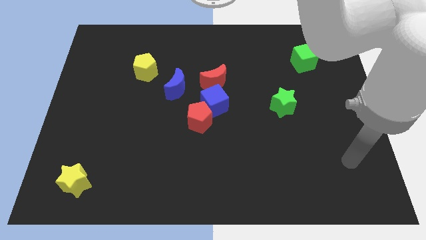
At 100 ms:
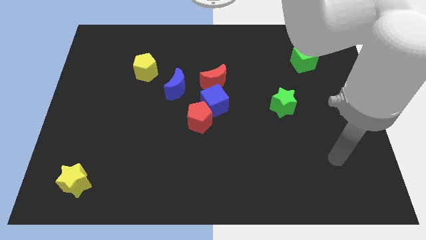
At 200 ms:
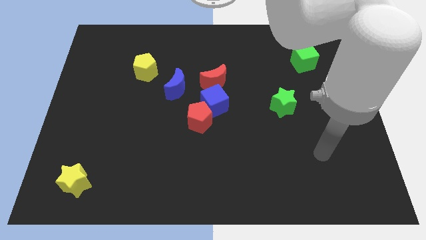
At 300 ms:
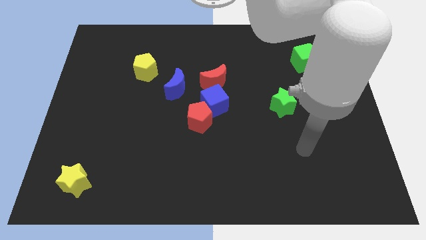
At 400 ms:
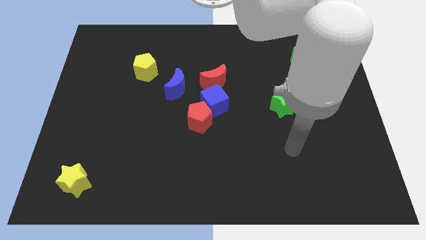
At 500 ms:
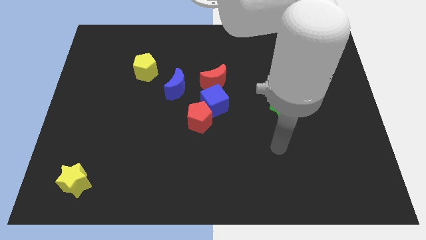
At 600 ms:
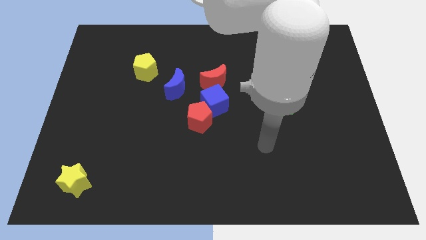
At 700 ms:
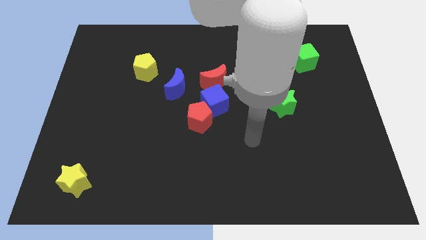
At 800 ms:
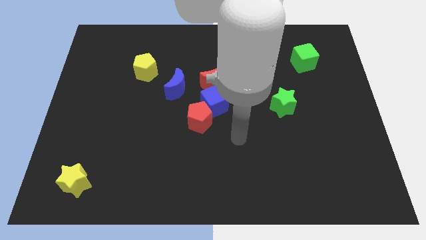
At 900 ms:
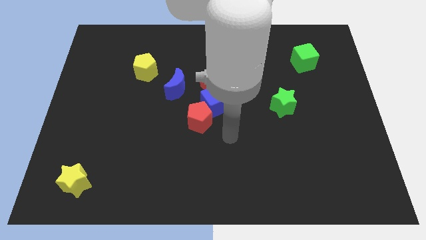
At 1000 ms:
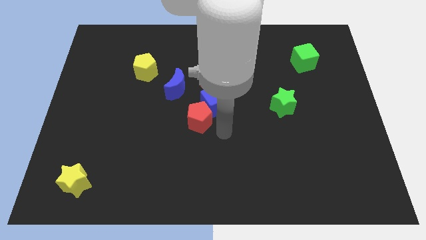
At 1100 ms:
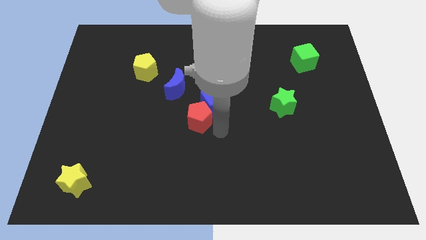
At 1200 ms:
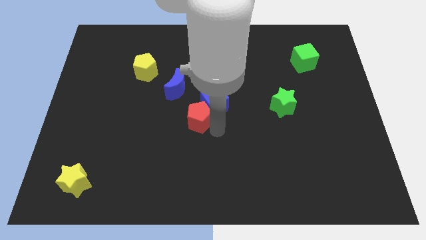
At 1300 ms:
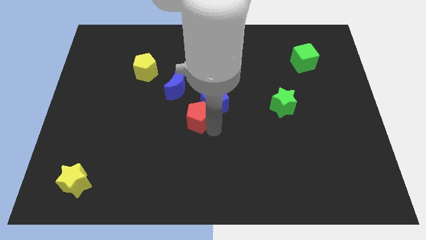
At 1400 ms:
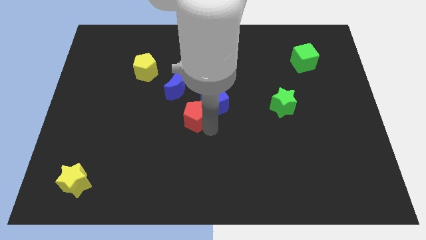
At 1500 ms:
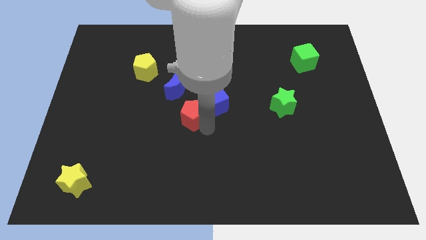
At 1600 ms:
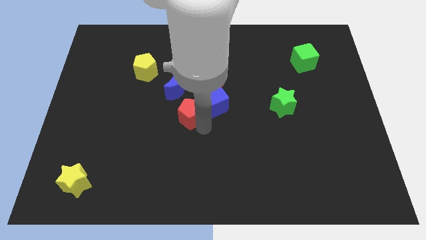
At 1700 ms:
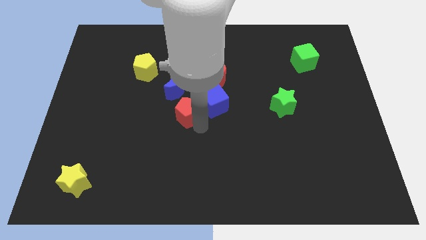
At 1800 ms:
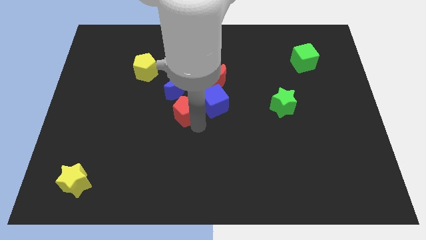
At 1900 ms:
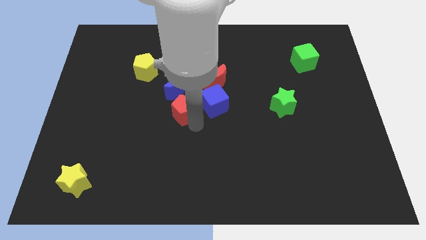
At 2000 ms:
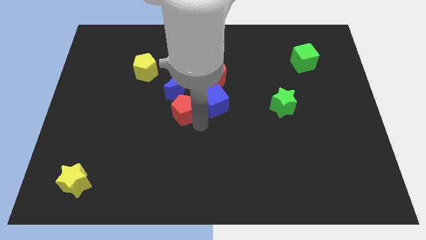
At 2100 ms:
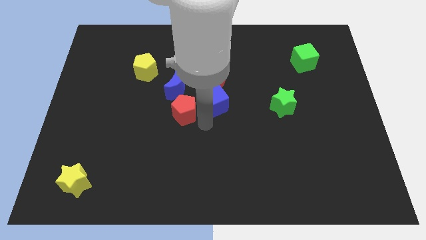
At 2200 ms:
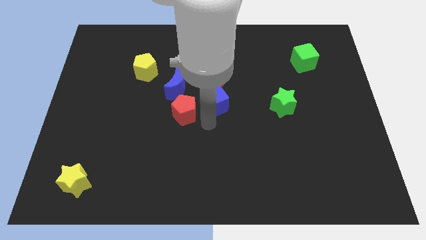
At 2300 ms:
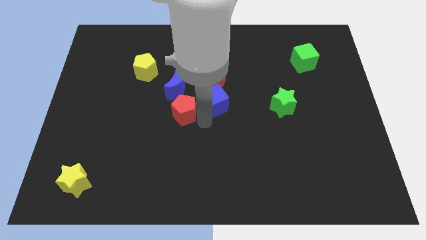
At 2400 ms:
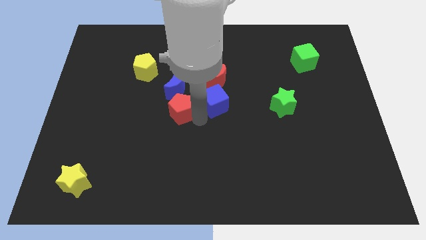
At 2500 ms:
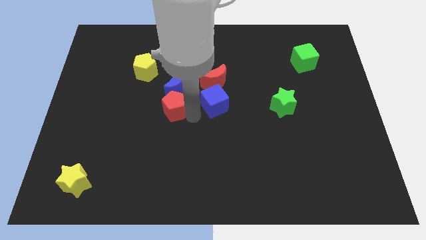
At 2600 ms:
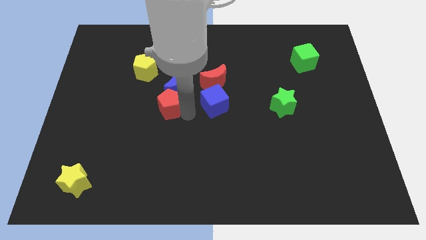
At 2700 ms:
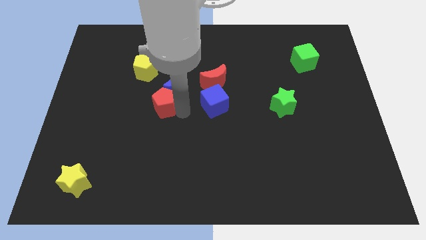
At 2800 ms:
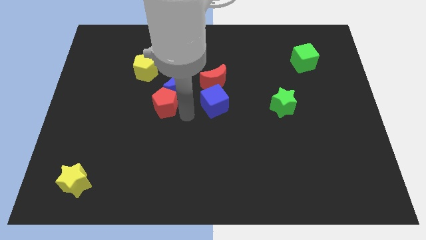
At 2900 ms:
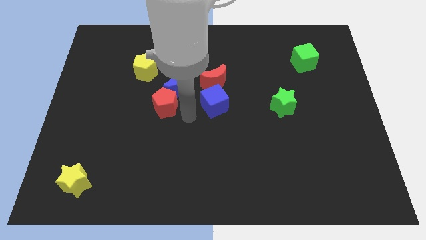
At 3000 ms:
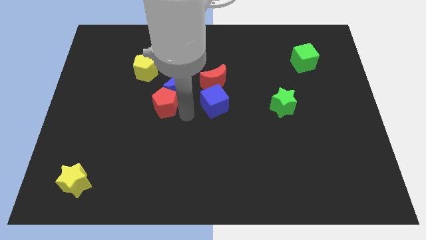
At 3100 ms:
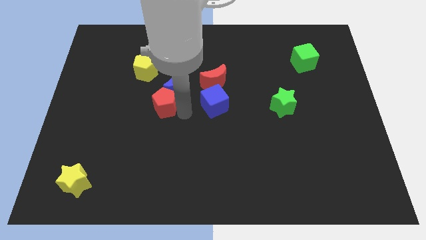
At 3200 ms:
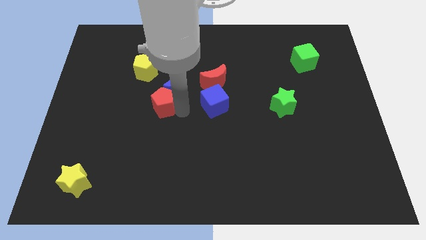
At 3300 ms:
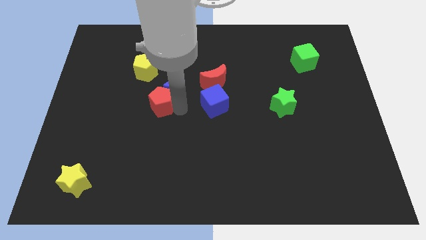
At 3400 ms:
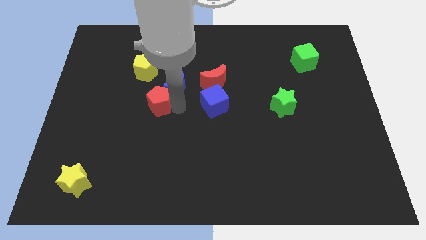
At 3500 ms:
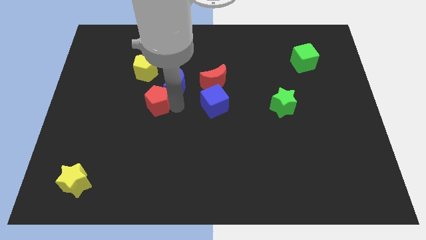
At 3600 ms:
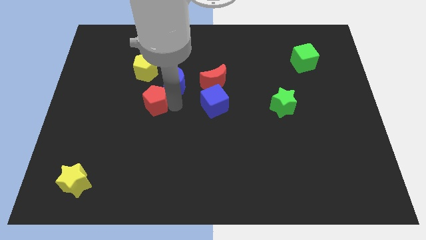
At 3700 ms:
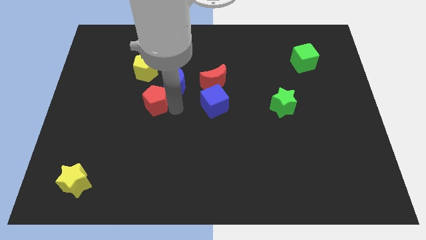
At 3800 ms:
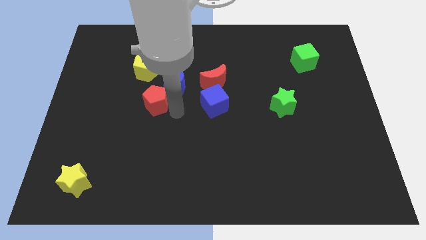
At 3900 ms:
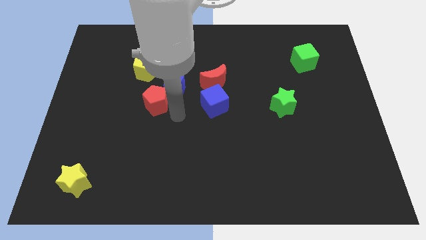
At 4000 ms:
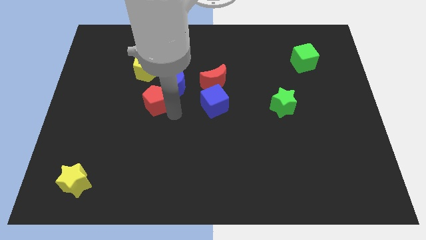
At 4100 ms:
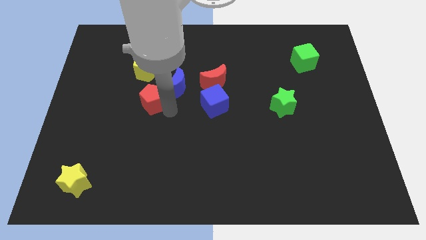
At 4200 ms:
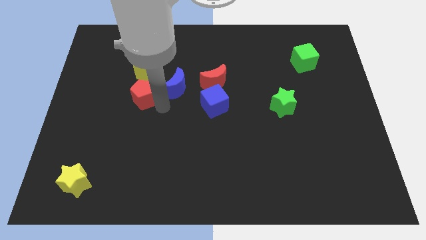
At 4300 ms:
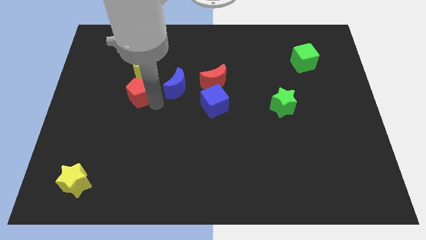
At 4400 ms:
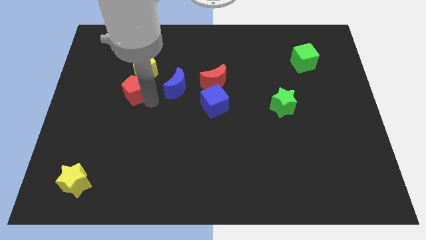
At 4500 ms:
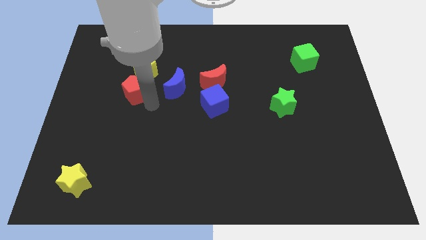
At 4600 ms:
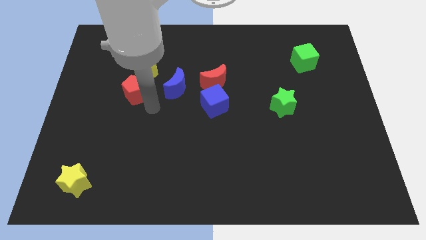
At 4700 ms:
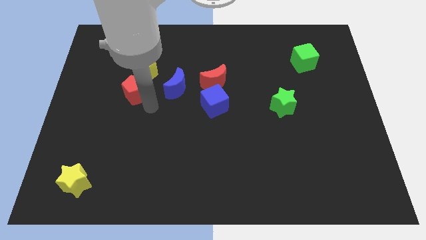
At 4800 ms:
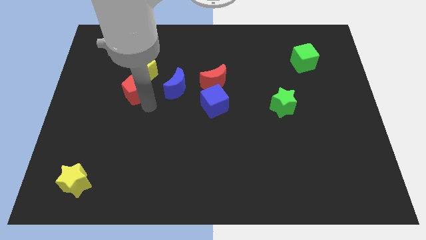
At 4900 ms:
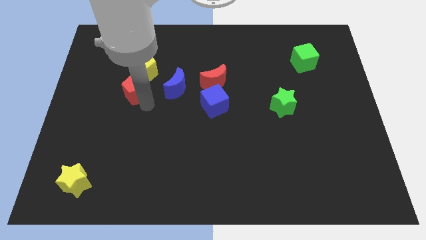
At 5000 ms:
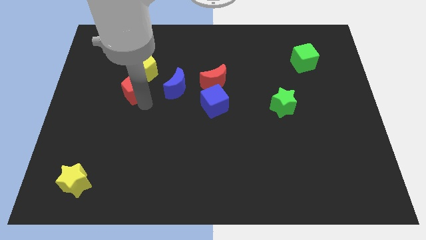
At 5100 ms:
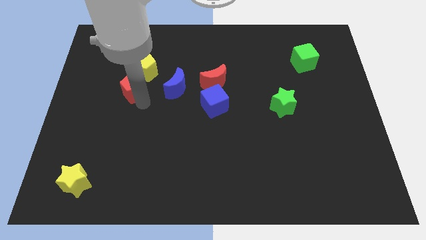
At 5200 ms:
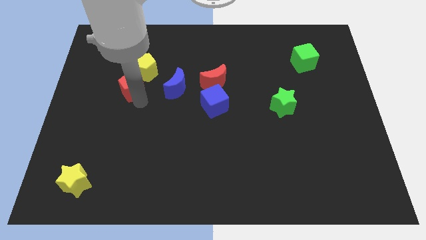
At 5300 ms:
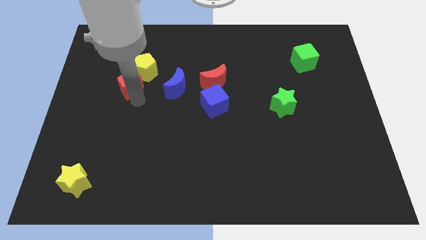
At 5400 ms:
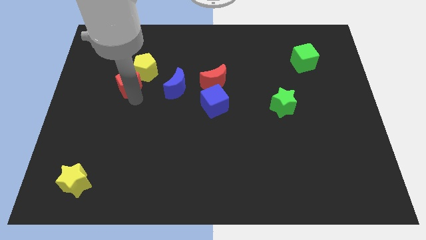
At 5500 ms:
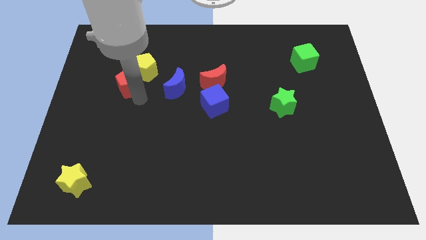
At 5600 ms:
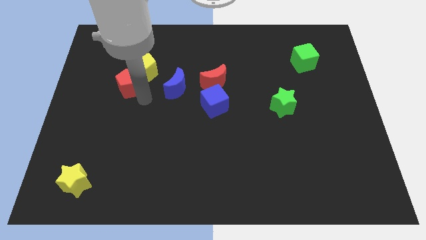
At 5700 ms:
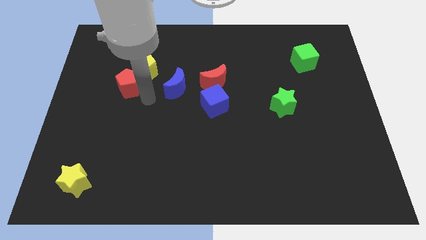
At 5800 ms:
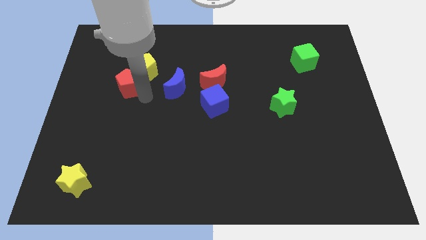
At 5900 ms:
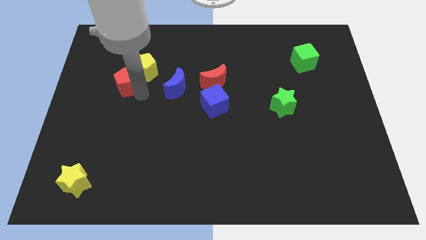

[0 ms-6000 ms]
put the red pentagon just left of the yellow pentagon

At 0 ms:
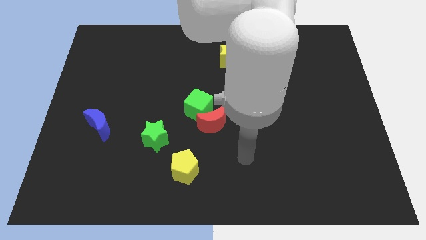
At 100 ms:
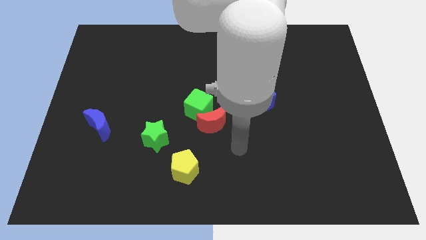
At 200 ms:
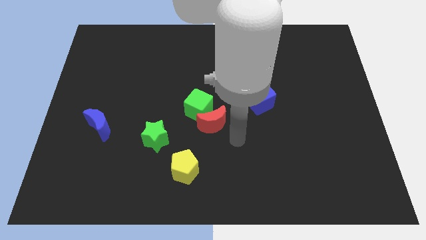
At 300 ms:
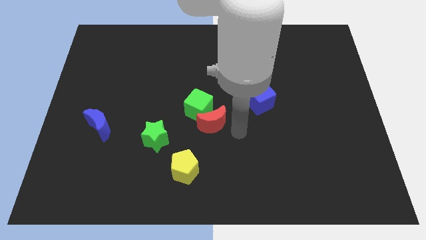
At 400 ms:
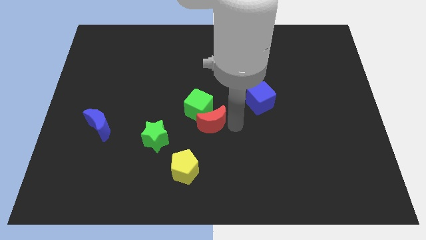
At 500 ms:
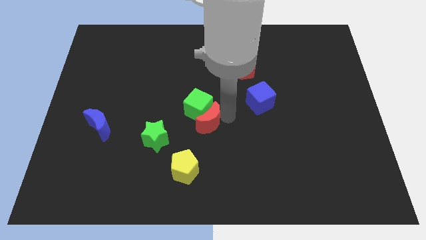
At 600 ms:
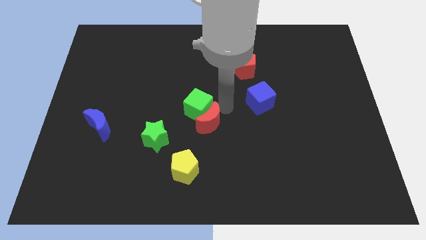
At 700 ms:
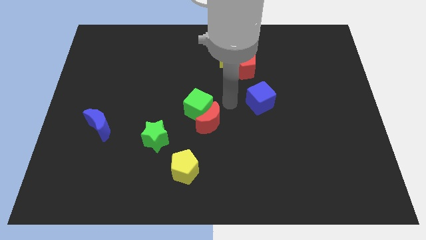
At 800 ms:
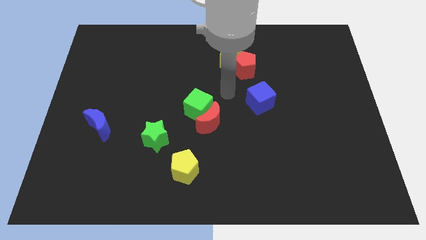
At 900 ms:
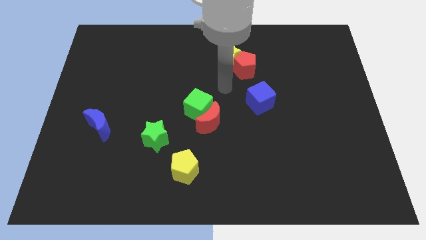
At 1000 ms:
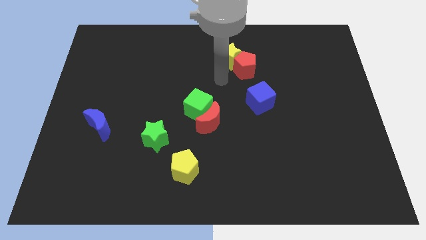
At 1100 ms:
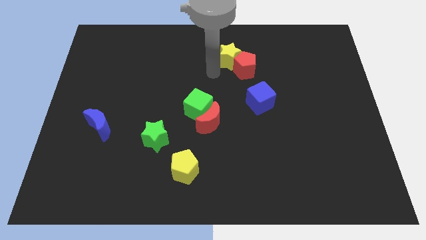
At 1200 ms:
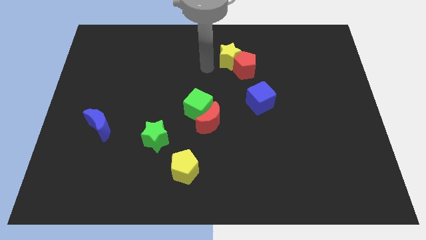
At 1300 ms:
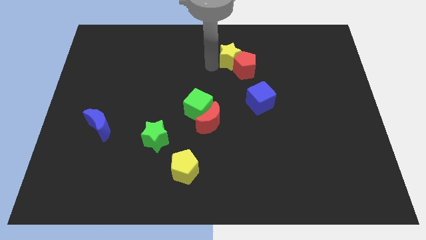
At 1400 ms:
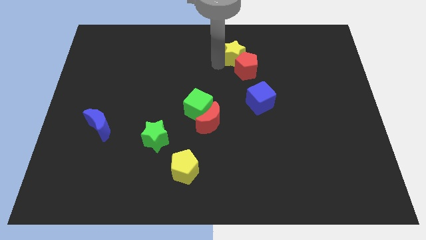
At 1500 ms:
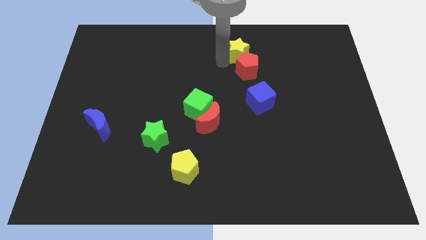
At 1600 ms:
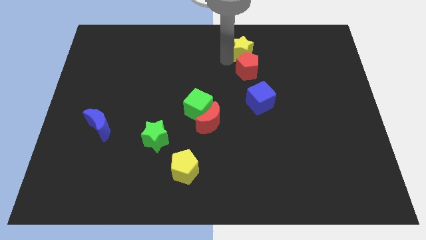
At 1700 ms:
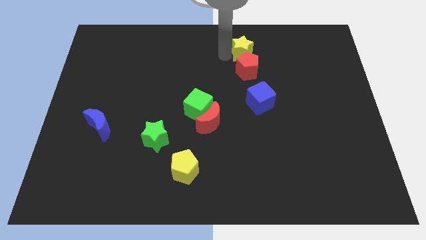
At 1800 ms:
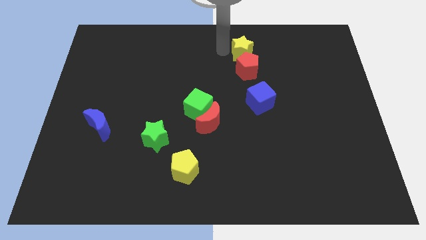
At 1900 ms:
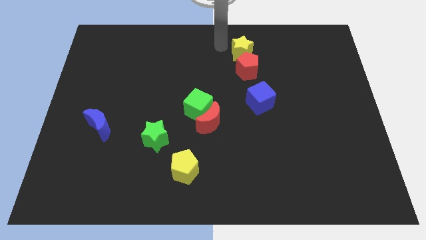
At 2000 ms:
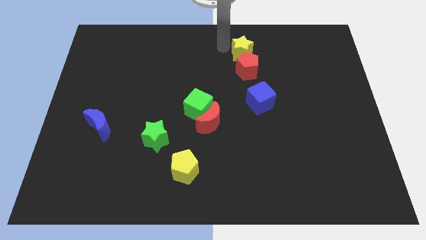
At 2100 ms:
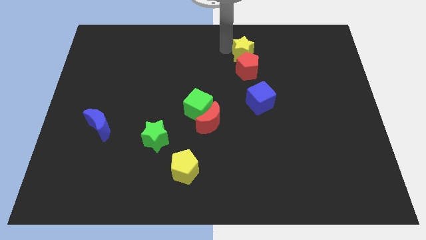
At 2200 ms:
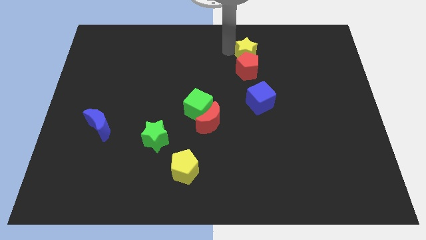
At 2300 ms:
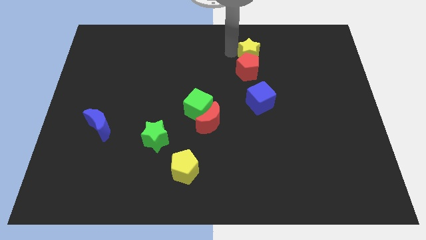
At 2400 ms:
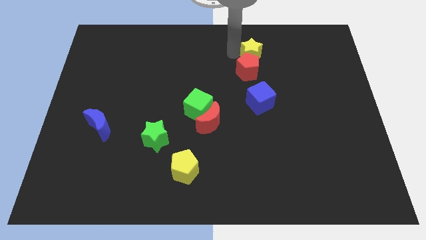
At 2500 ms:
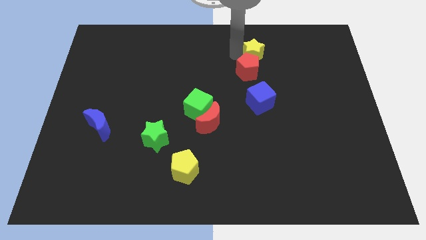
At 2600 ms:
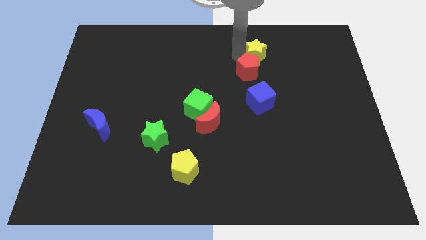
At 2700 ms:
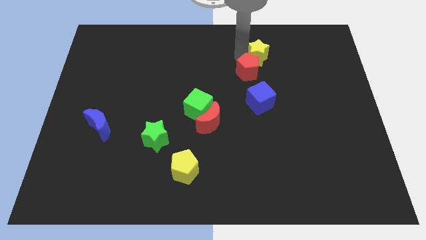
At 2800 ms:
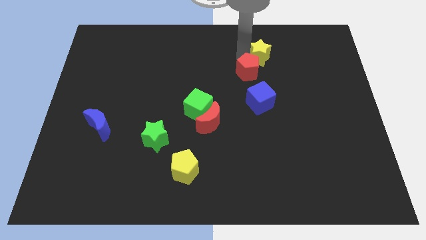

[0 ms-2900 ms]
slide the yellow star to the right of the red pentagon
